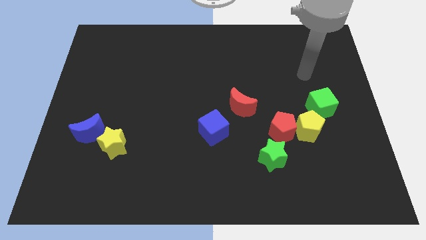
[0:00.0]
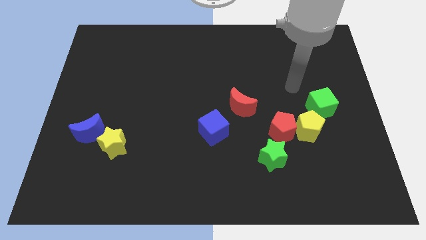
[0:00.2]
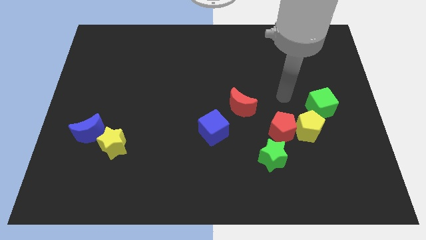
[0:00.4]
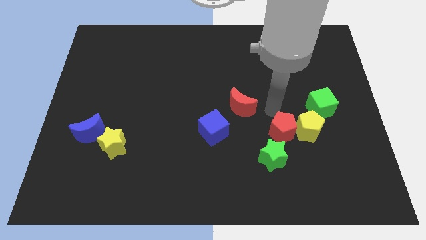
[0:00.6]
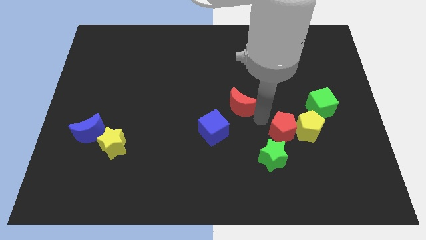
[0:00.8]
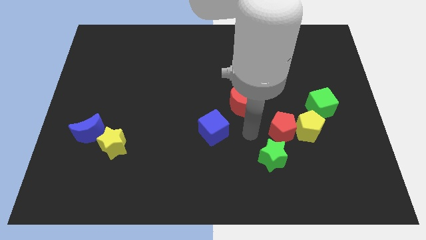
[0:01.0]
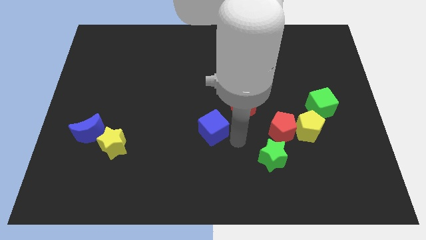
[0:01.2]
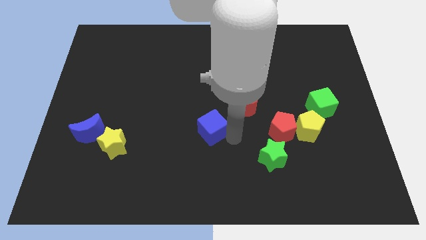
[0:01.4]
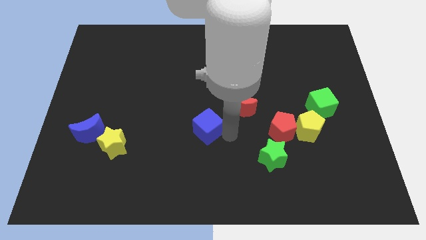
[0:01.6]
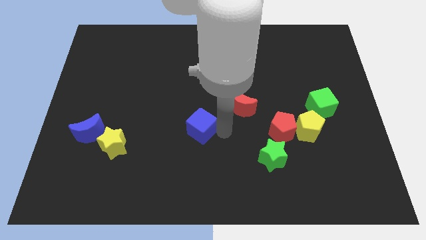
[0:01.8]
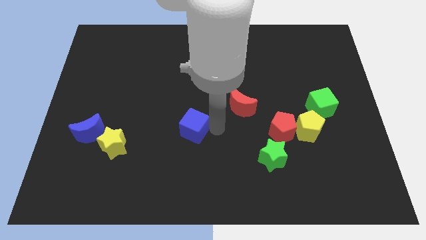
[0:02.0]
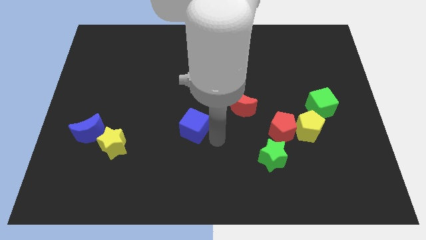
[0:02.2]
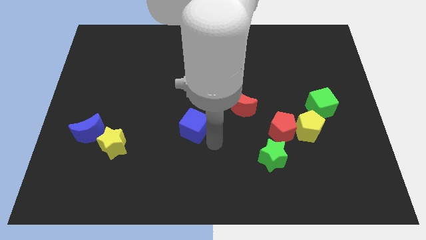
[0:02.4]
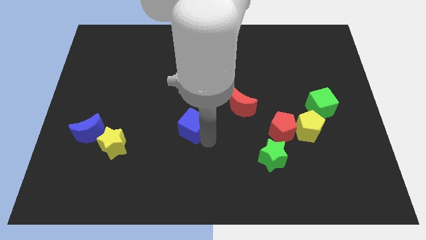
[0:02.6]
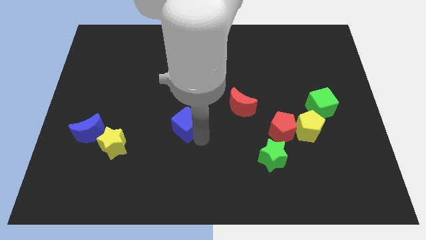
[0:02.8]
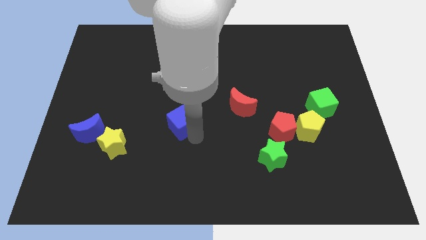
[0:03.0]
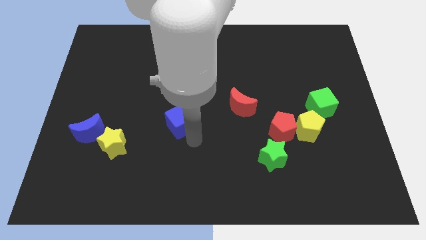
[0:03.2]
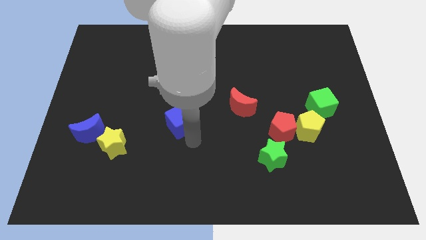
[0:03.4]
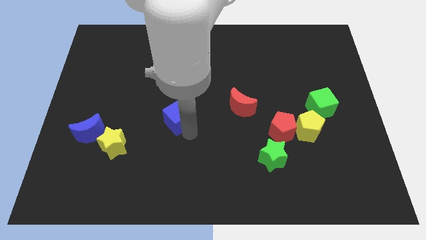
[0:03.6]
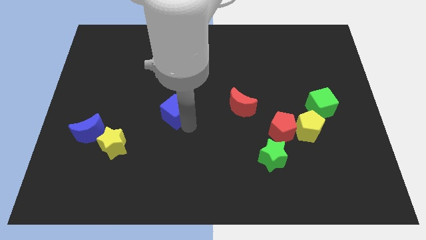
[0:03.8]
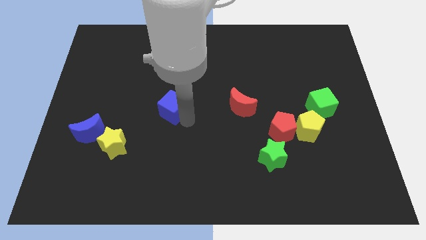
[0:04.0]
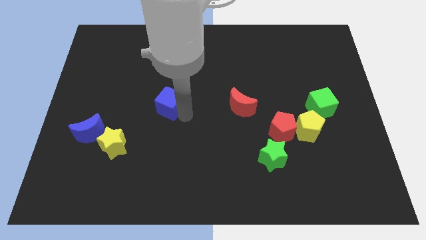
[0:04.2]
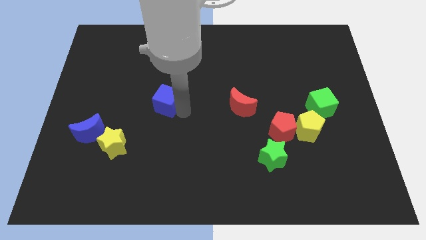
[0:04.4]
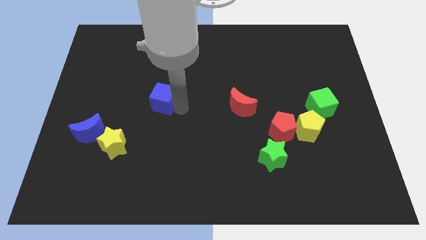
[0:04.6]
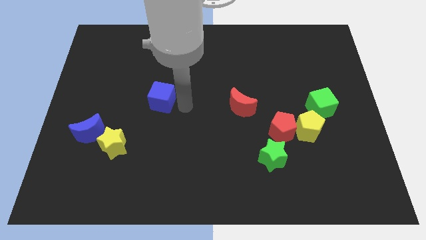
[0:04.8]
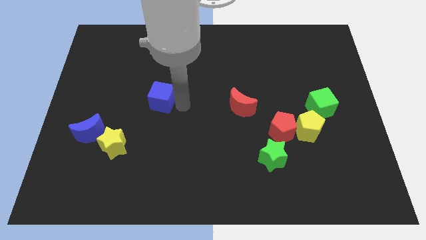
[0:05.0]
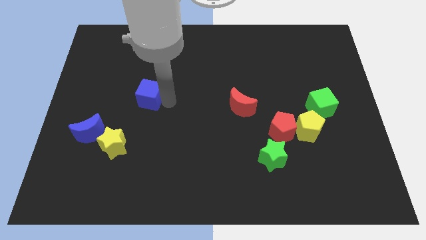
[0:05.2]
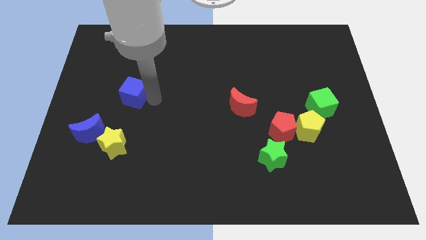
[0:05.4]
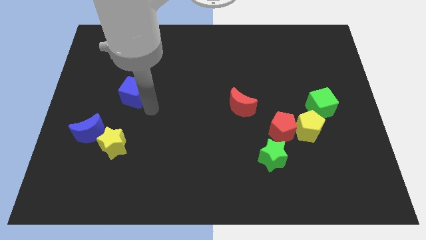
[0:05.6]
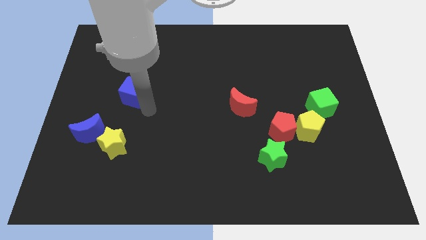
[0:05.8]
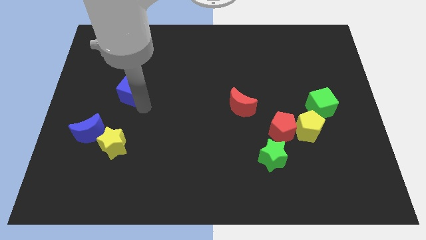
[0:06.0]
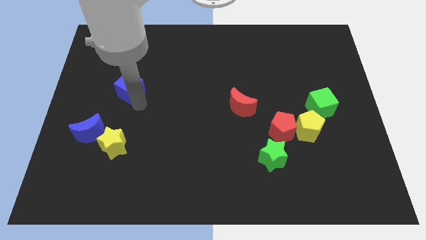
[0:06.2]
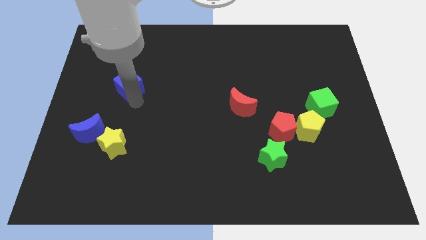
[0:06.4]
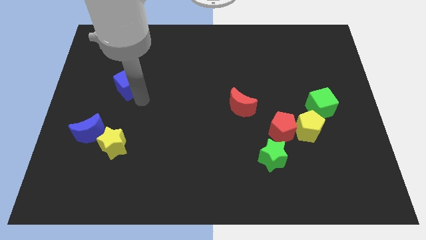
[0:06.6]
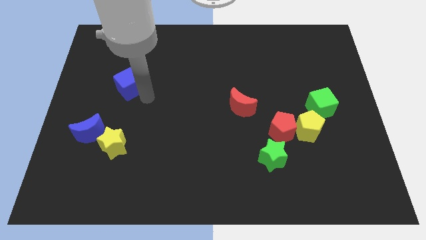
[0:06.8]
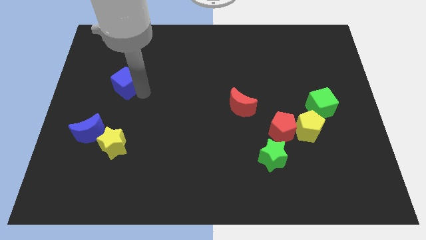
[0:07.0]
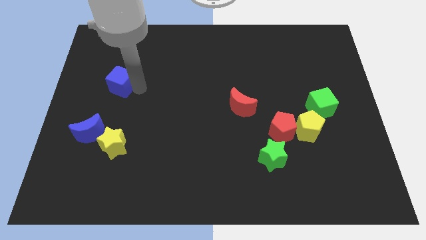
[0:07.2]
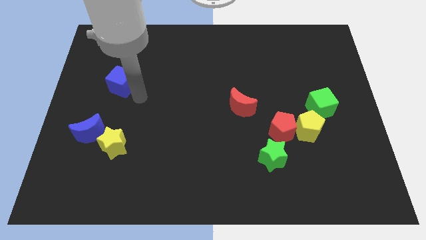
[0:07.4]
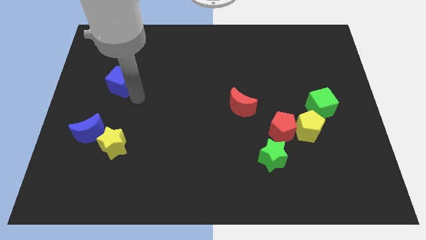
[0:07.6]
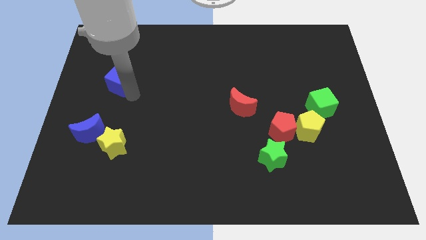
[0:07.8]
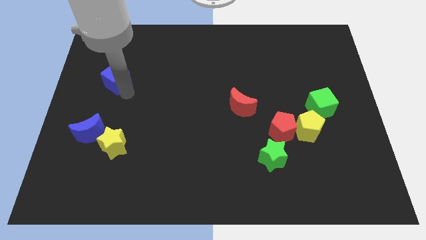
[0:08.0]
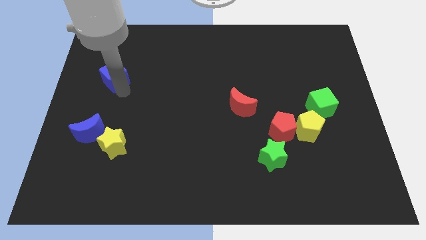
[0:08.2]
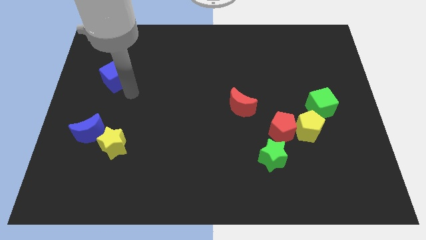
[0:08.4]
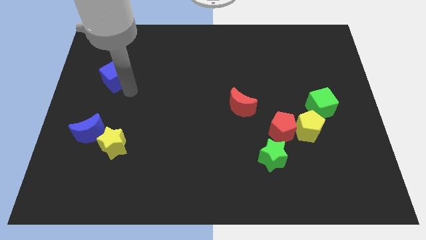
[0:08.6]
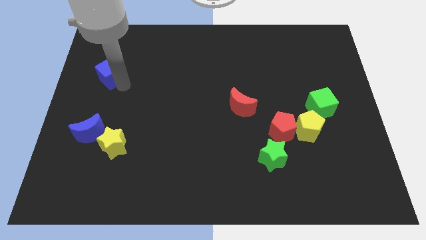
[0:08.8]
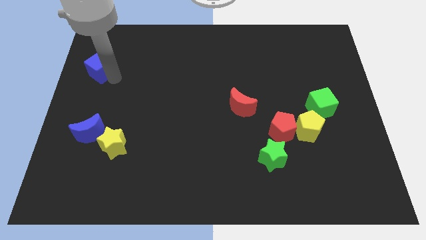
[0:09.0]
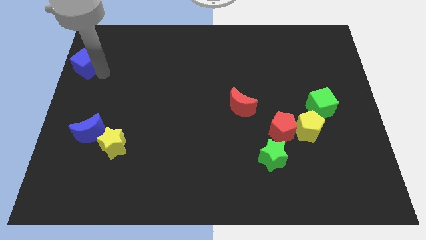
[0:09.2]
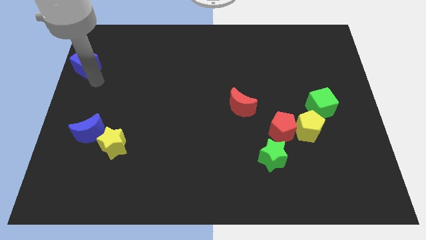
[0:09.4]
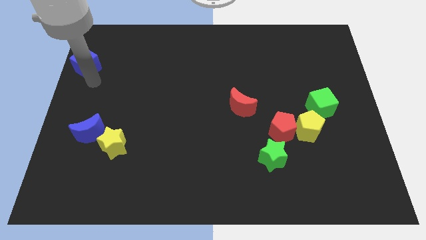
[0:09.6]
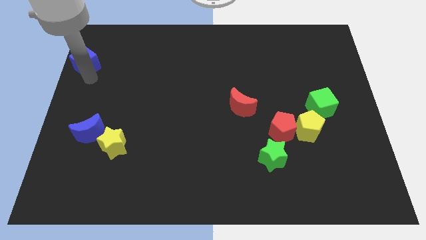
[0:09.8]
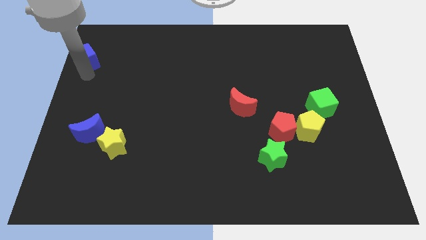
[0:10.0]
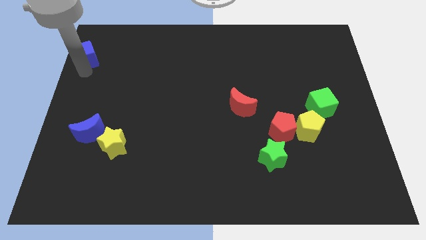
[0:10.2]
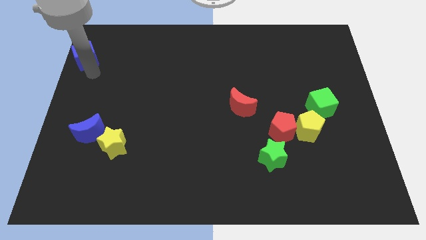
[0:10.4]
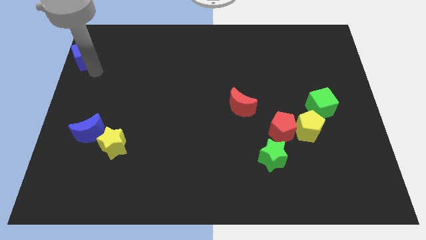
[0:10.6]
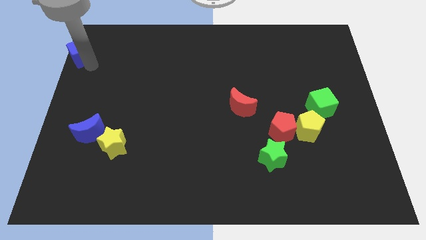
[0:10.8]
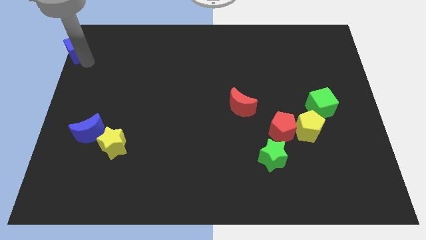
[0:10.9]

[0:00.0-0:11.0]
move the blue cube to the top left
